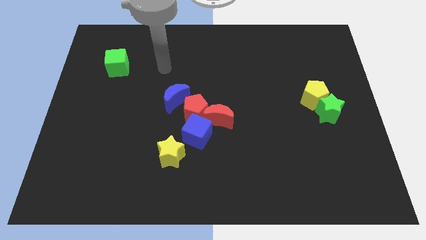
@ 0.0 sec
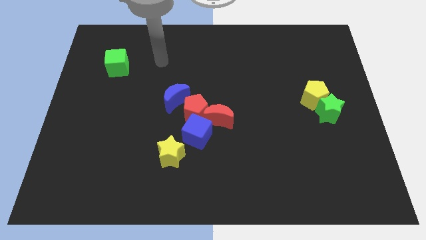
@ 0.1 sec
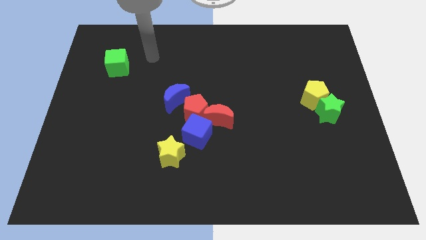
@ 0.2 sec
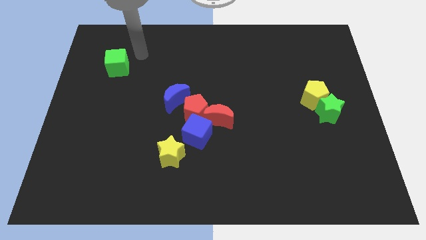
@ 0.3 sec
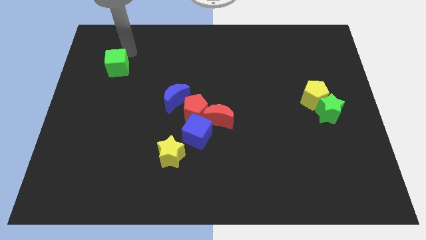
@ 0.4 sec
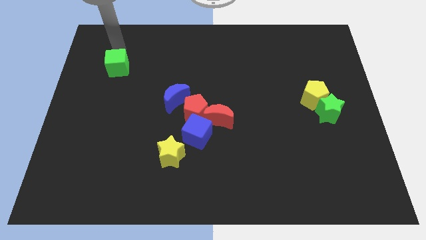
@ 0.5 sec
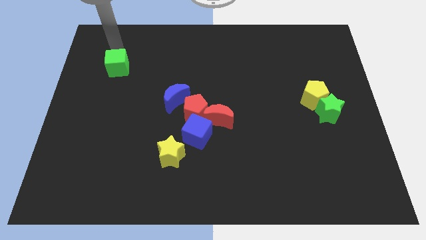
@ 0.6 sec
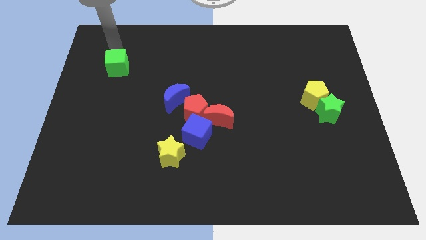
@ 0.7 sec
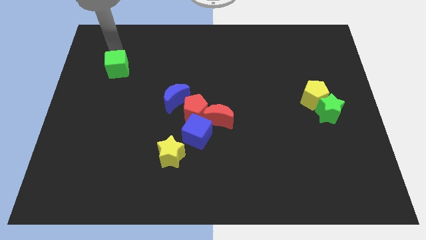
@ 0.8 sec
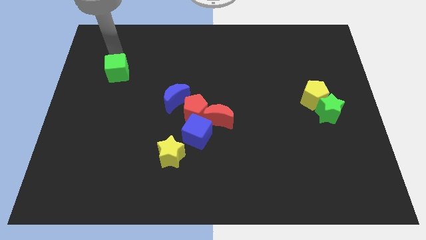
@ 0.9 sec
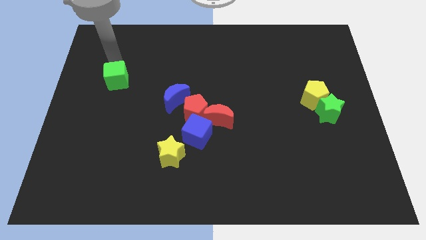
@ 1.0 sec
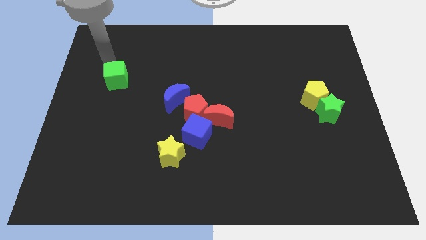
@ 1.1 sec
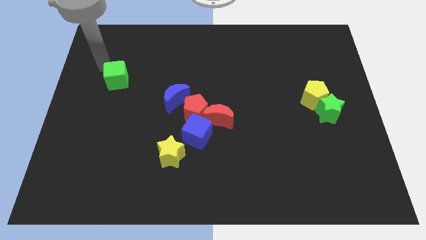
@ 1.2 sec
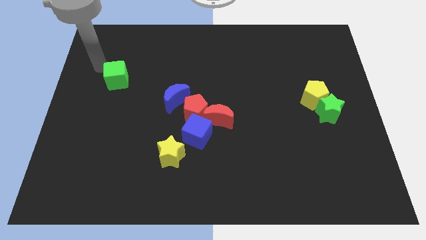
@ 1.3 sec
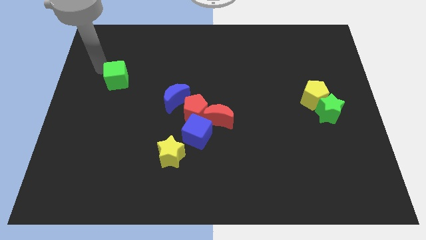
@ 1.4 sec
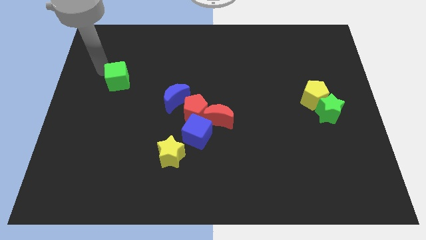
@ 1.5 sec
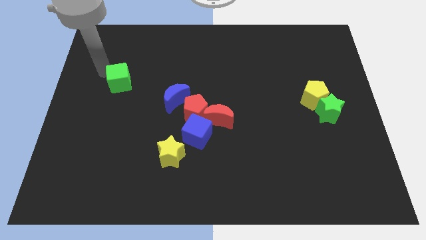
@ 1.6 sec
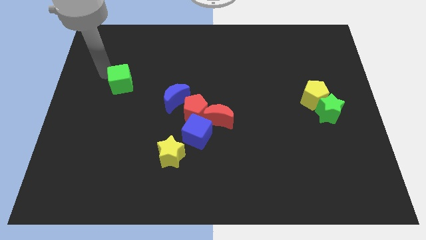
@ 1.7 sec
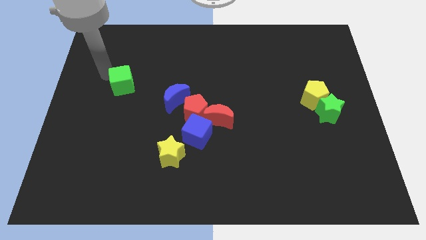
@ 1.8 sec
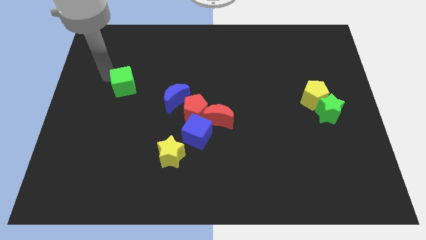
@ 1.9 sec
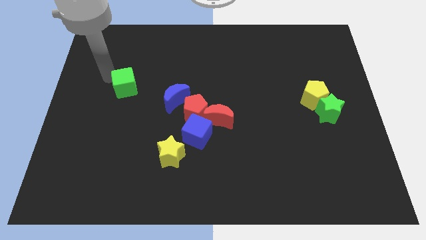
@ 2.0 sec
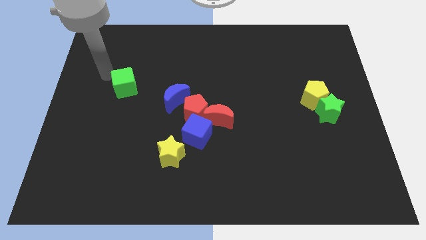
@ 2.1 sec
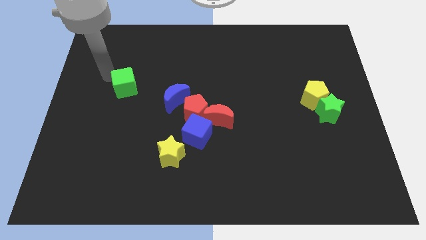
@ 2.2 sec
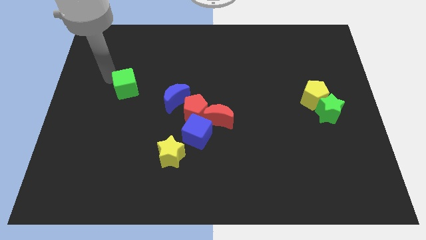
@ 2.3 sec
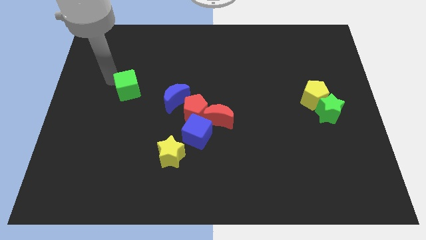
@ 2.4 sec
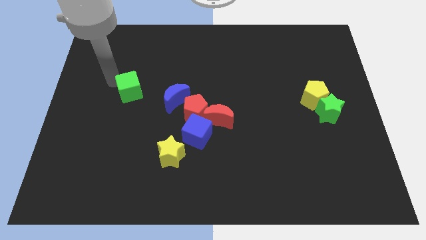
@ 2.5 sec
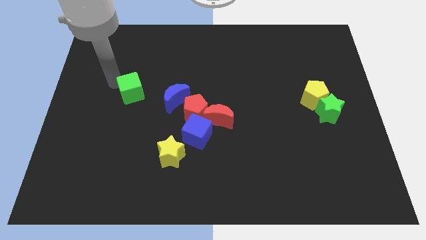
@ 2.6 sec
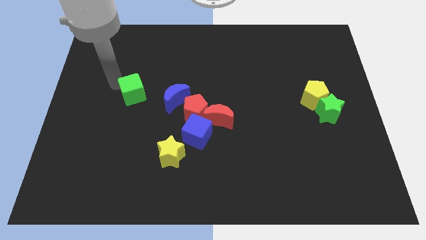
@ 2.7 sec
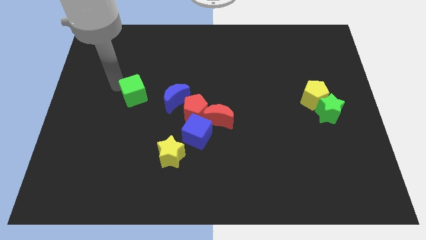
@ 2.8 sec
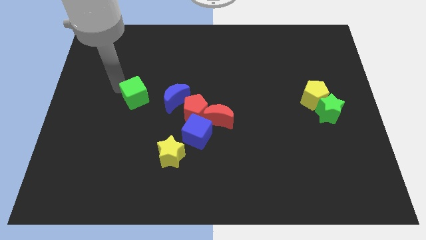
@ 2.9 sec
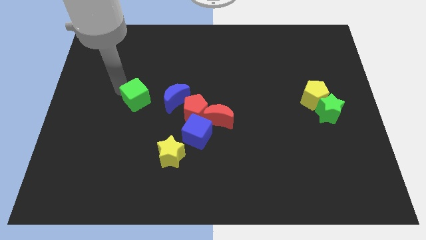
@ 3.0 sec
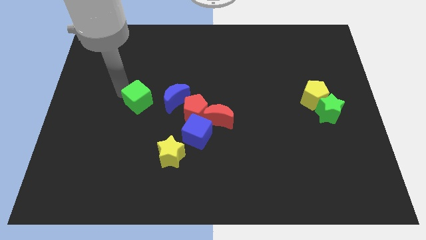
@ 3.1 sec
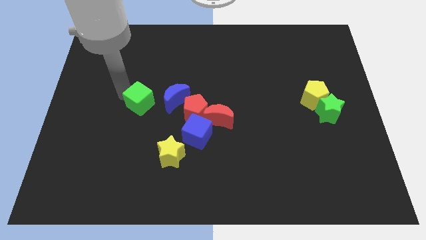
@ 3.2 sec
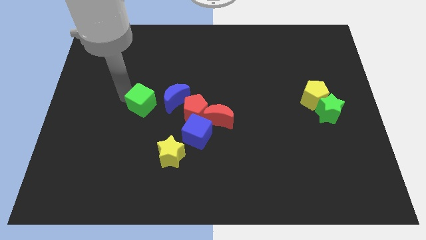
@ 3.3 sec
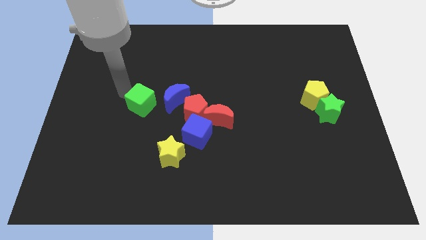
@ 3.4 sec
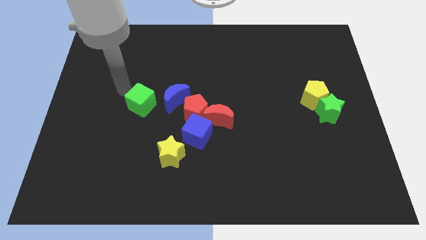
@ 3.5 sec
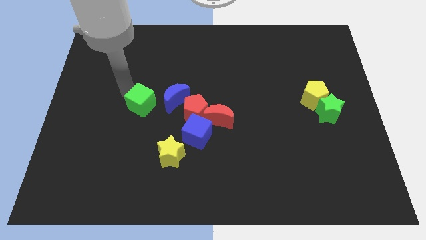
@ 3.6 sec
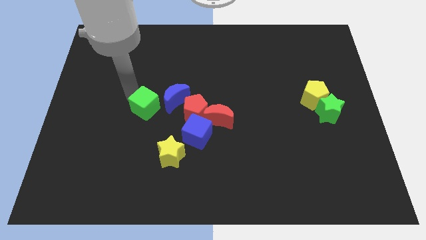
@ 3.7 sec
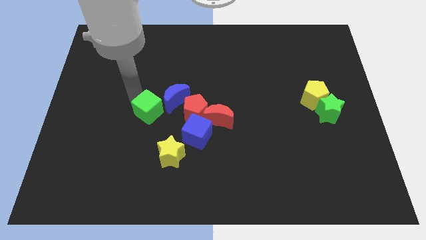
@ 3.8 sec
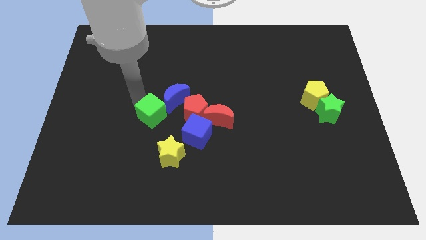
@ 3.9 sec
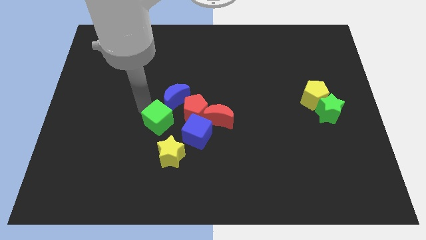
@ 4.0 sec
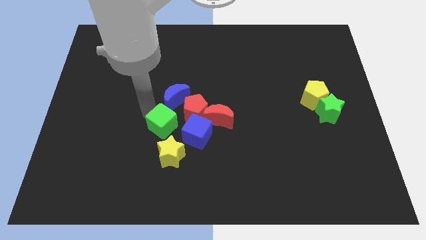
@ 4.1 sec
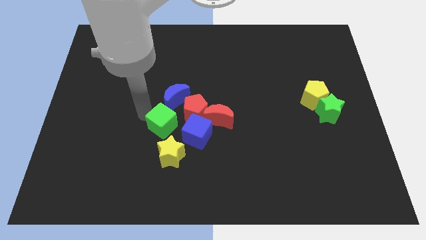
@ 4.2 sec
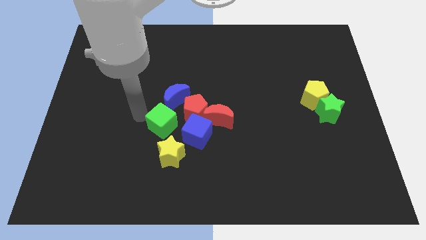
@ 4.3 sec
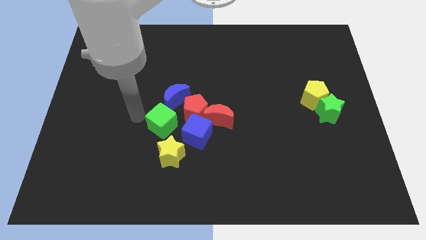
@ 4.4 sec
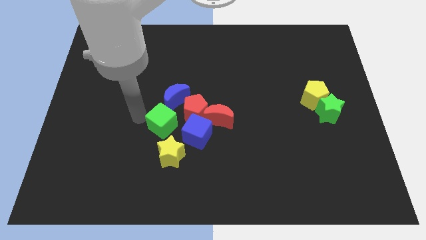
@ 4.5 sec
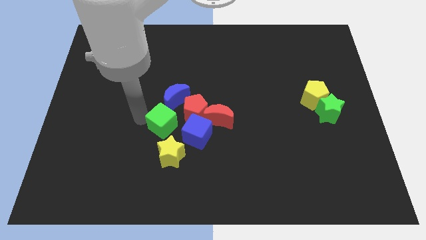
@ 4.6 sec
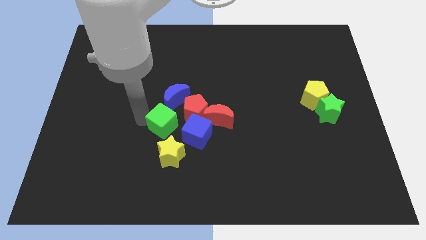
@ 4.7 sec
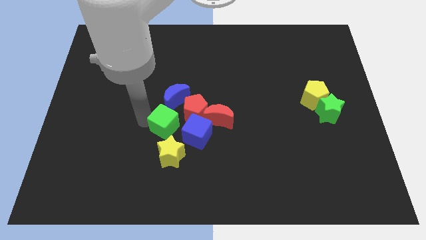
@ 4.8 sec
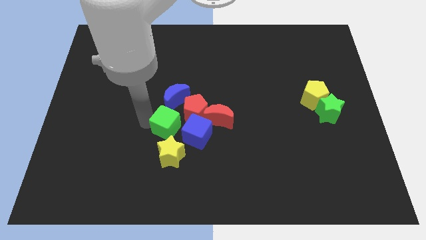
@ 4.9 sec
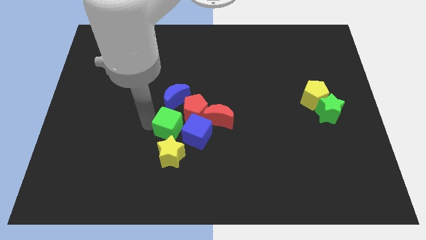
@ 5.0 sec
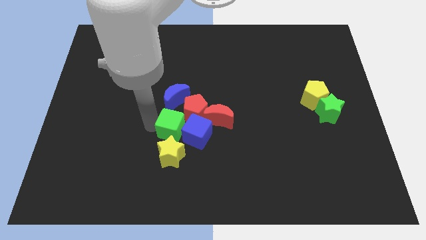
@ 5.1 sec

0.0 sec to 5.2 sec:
move the green cube next to the blue cube

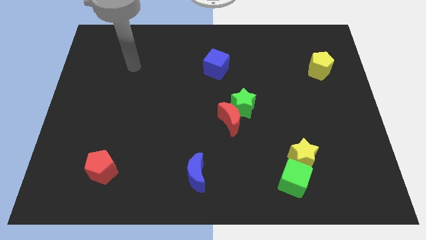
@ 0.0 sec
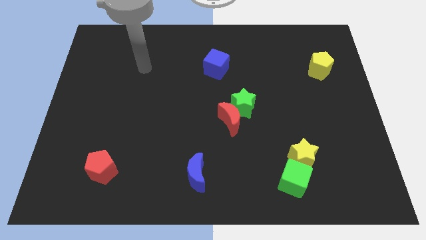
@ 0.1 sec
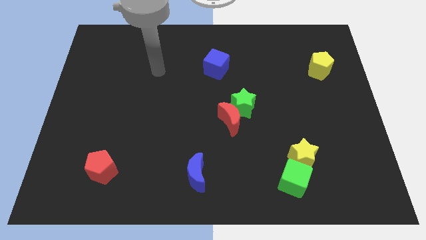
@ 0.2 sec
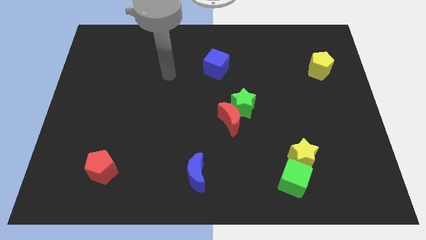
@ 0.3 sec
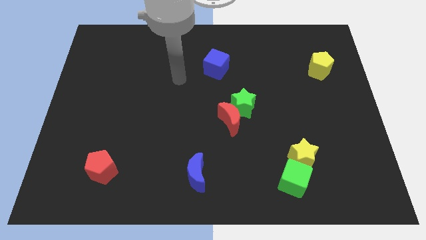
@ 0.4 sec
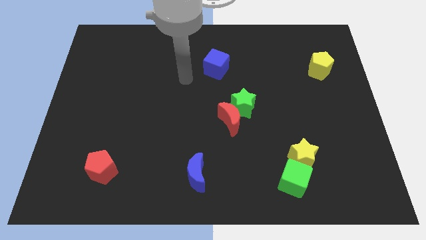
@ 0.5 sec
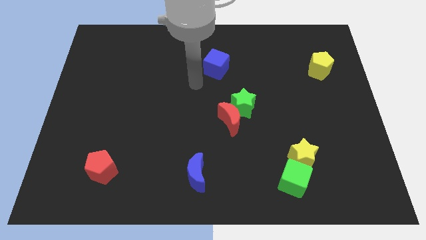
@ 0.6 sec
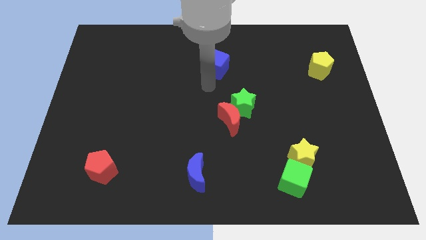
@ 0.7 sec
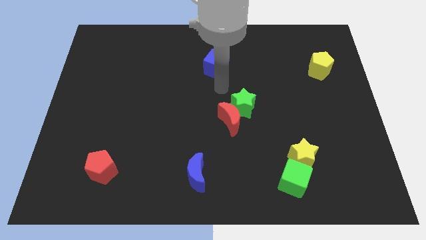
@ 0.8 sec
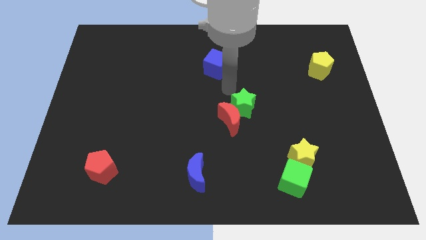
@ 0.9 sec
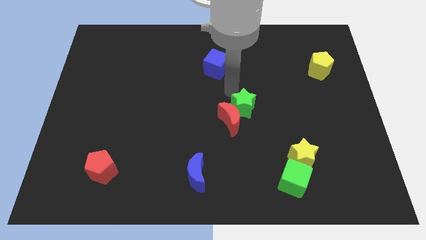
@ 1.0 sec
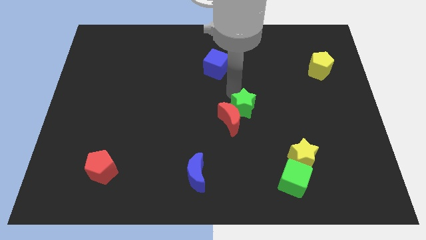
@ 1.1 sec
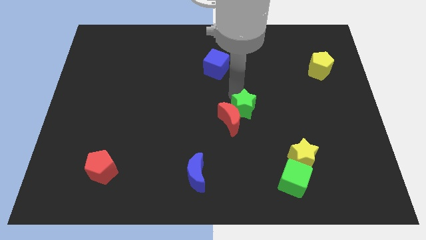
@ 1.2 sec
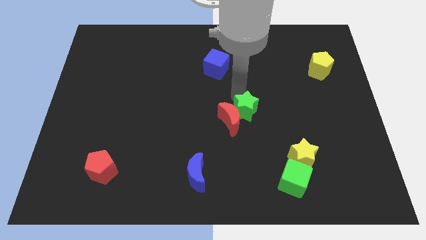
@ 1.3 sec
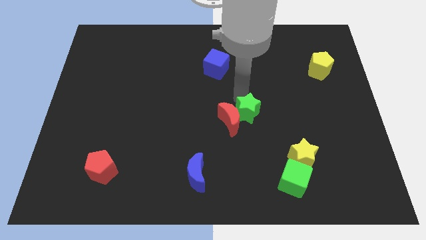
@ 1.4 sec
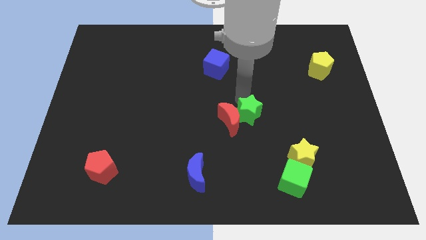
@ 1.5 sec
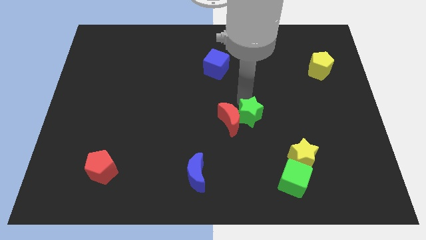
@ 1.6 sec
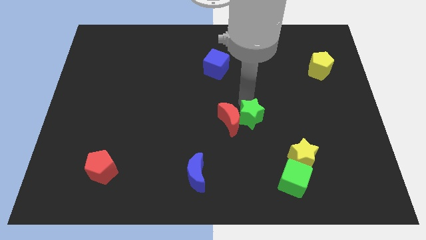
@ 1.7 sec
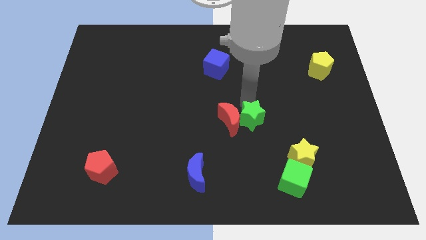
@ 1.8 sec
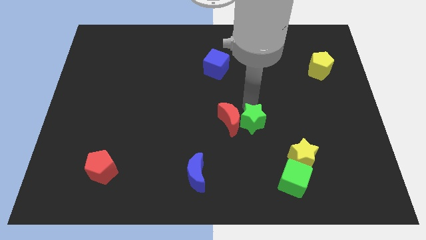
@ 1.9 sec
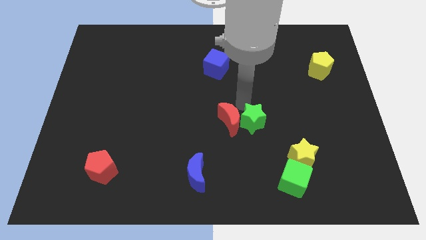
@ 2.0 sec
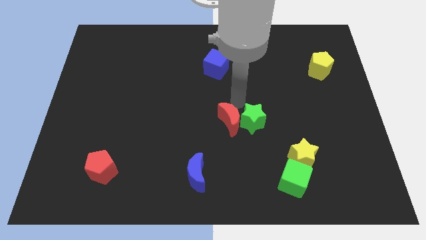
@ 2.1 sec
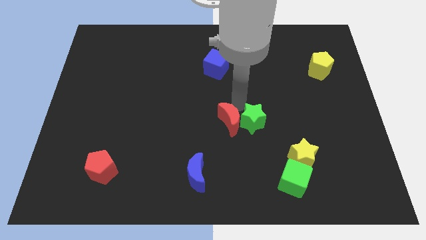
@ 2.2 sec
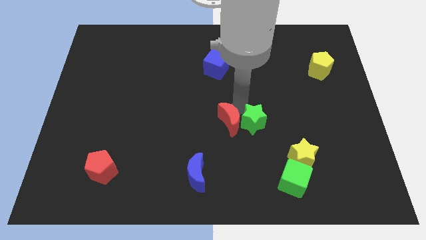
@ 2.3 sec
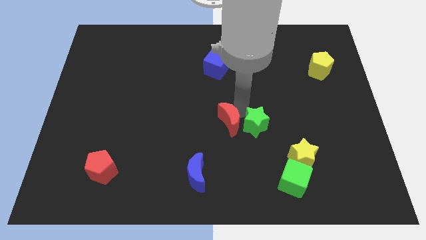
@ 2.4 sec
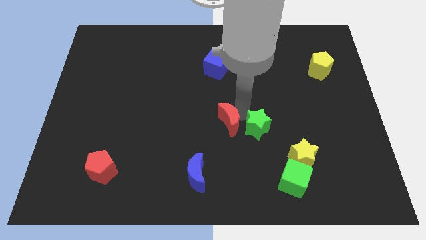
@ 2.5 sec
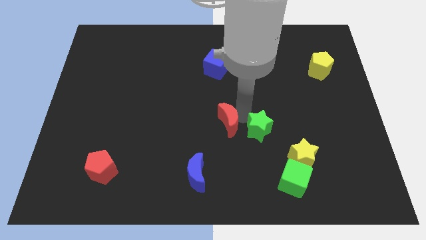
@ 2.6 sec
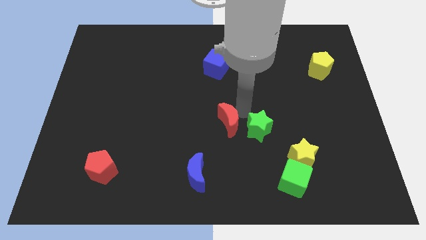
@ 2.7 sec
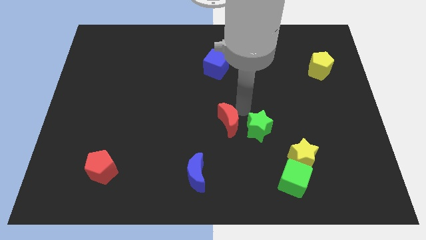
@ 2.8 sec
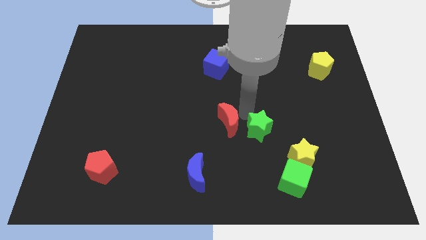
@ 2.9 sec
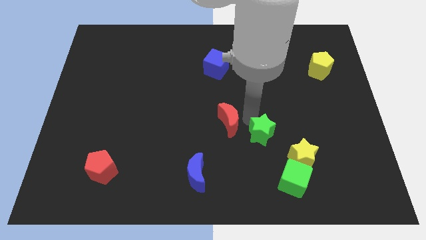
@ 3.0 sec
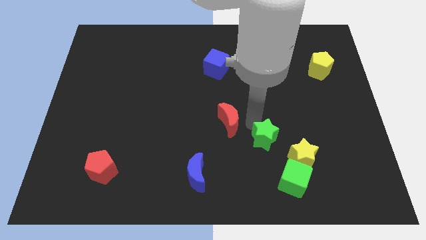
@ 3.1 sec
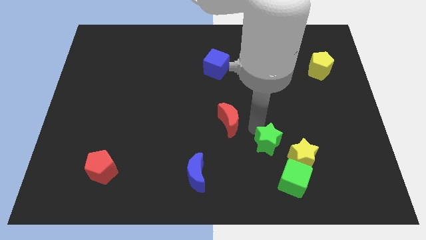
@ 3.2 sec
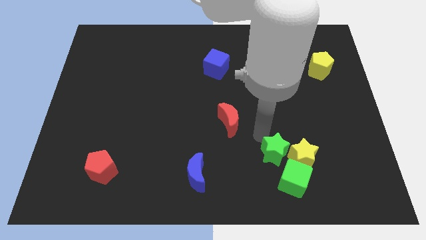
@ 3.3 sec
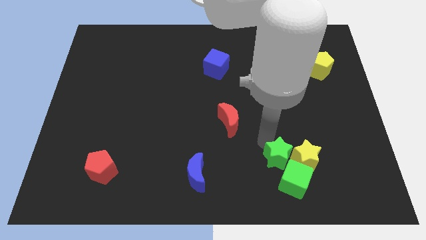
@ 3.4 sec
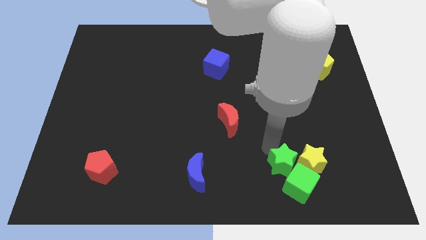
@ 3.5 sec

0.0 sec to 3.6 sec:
slide the green star towards the green cube
